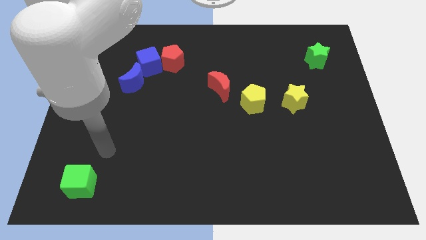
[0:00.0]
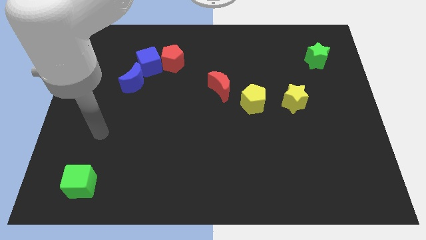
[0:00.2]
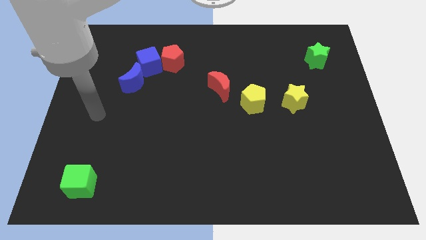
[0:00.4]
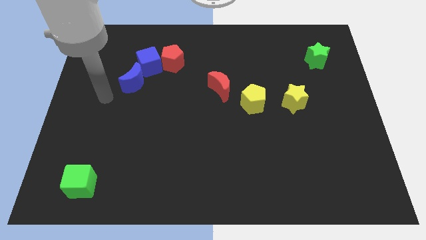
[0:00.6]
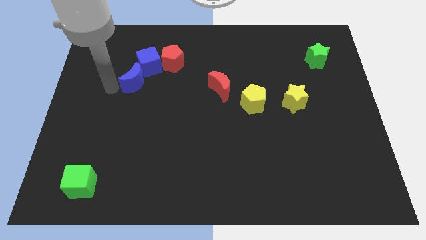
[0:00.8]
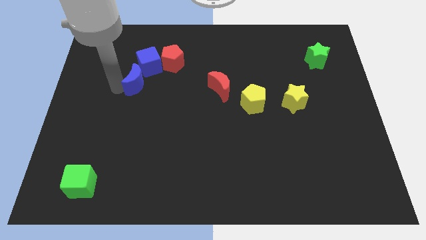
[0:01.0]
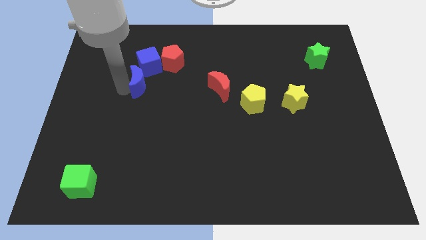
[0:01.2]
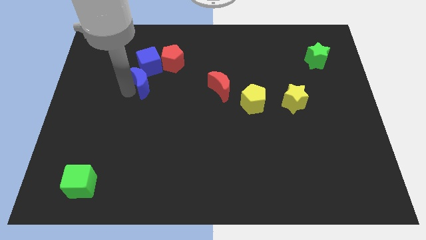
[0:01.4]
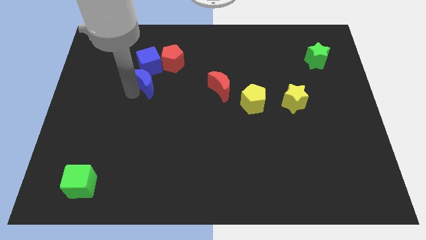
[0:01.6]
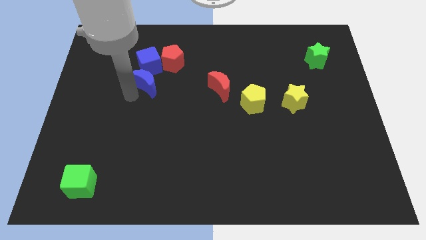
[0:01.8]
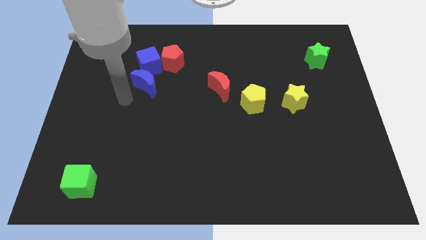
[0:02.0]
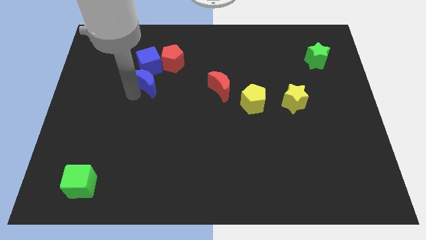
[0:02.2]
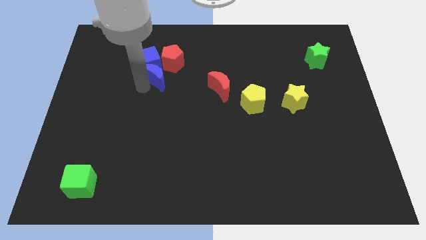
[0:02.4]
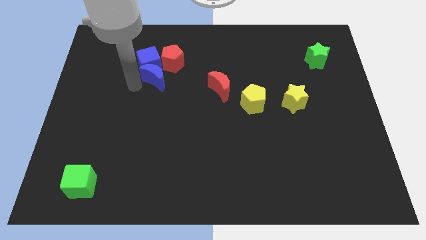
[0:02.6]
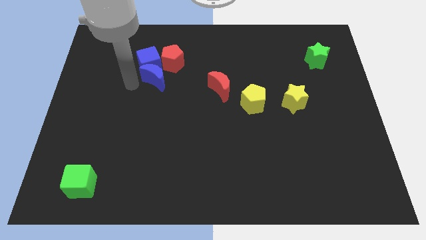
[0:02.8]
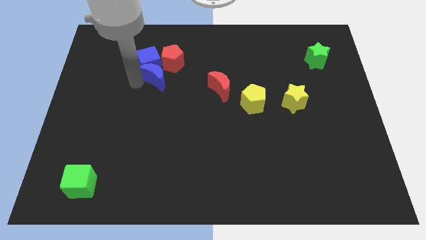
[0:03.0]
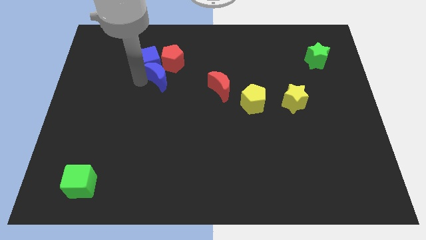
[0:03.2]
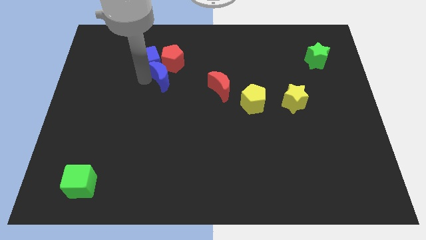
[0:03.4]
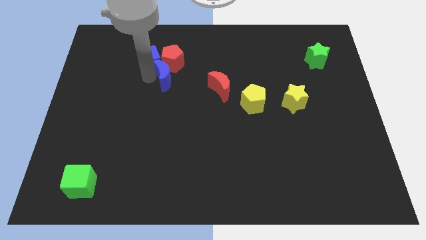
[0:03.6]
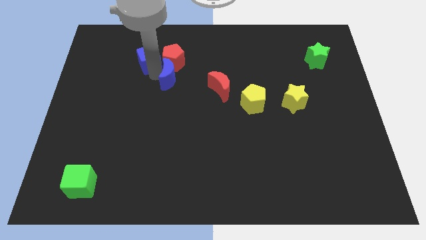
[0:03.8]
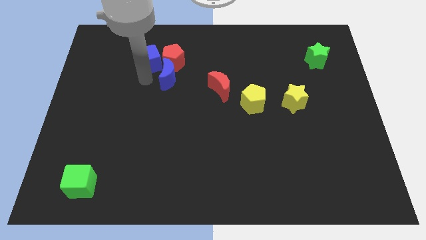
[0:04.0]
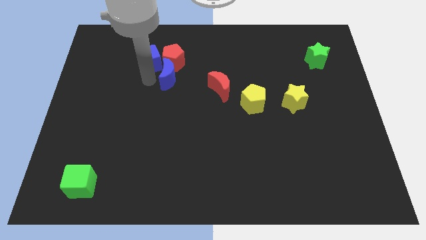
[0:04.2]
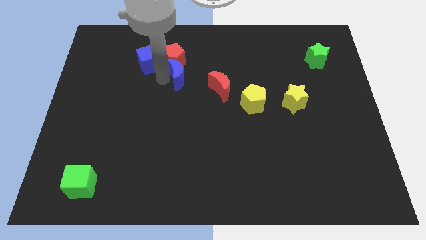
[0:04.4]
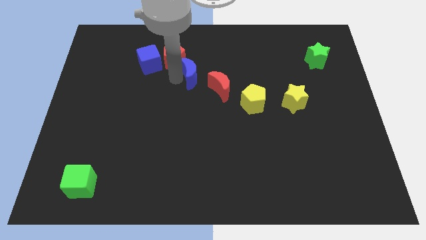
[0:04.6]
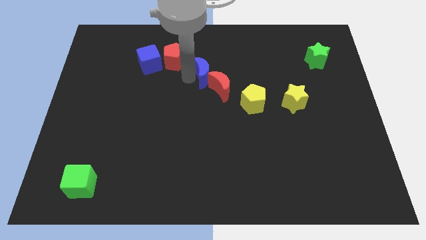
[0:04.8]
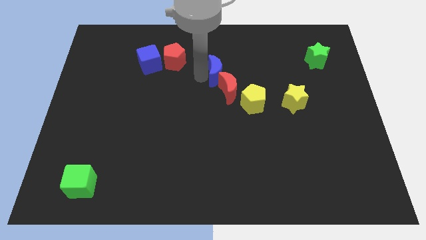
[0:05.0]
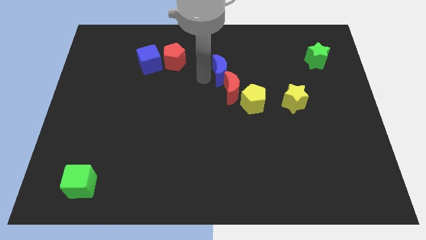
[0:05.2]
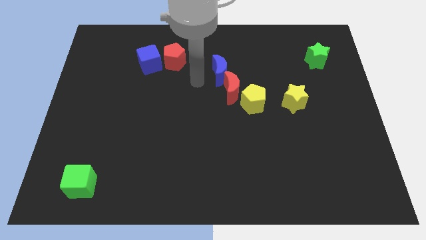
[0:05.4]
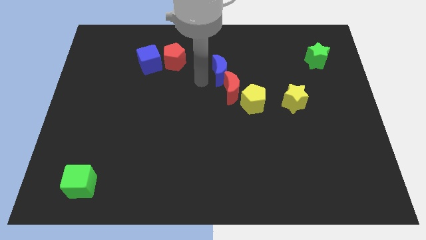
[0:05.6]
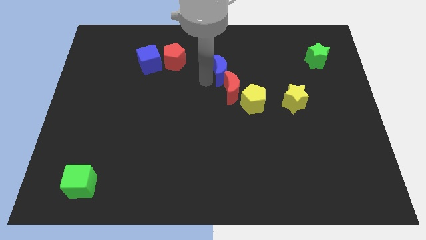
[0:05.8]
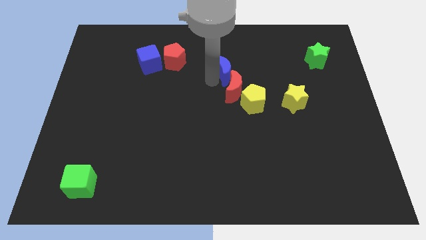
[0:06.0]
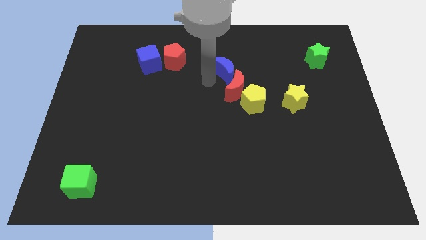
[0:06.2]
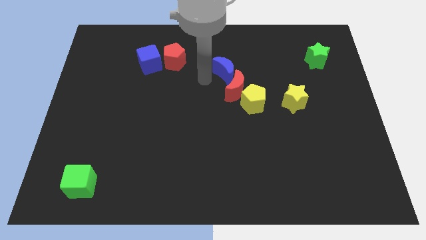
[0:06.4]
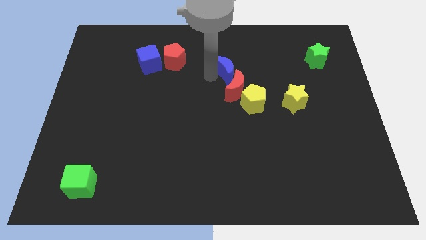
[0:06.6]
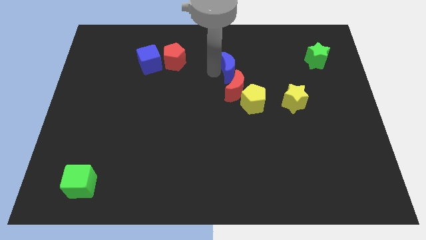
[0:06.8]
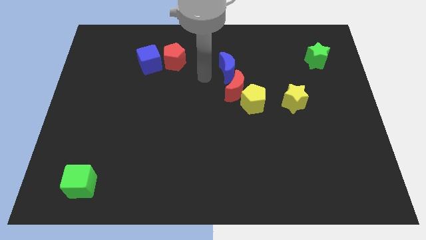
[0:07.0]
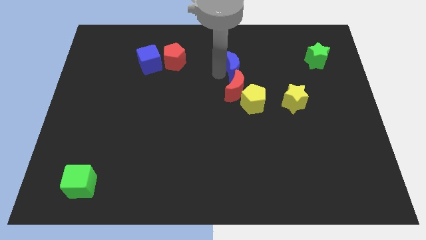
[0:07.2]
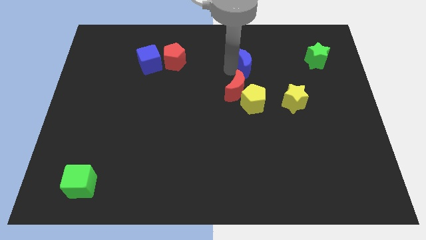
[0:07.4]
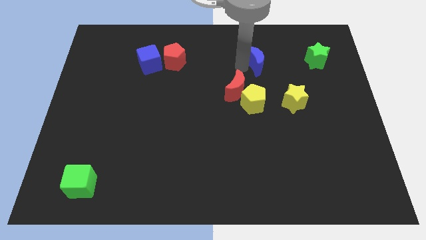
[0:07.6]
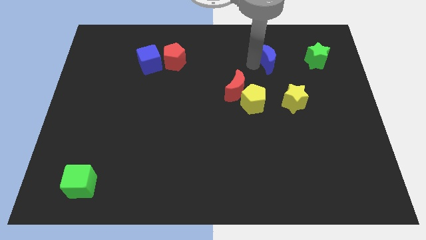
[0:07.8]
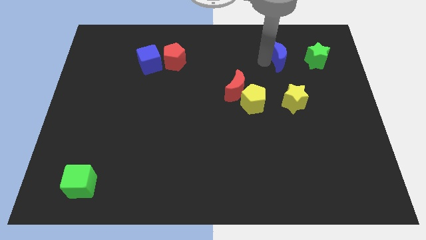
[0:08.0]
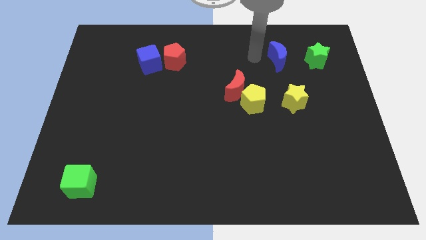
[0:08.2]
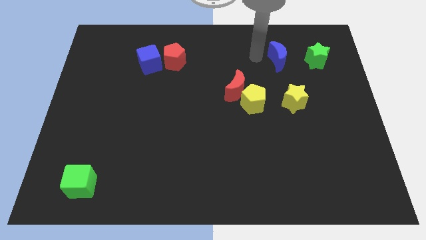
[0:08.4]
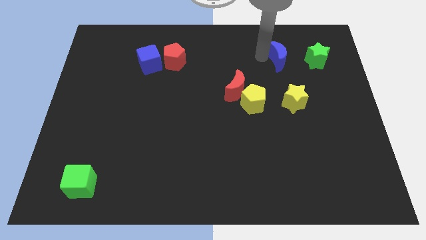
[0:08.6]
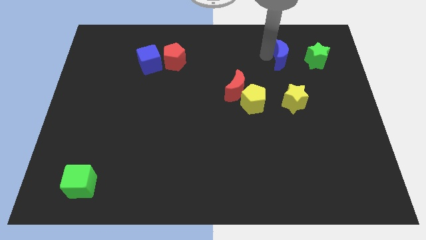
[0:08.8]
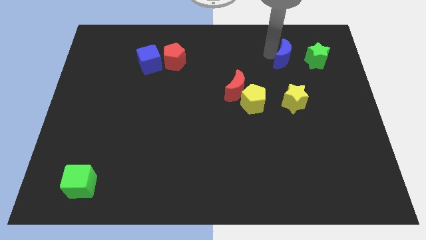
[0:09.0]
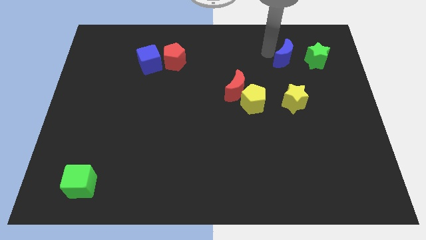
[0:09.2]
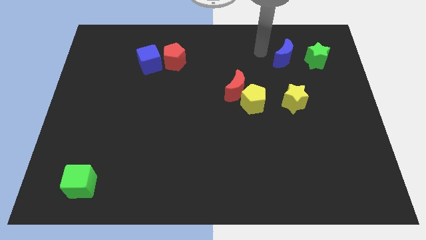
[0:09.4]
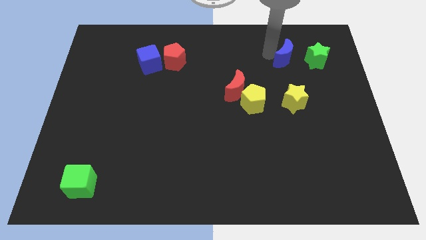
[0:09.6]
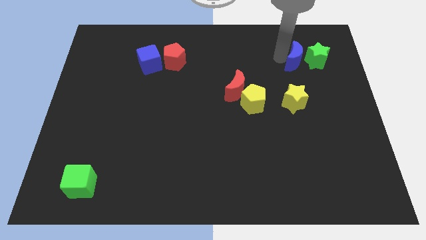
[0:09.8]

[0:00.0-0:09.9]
put the blue moon towards the green star

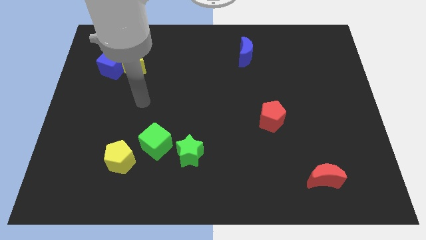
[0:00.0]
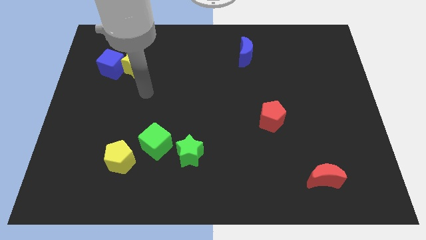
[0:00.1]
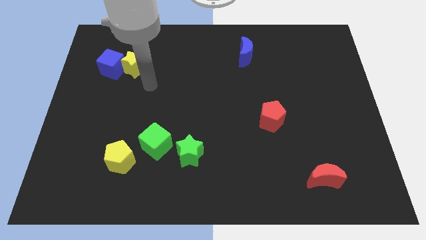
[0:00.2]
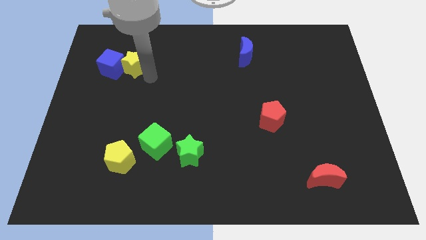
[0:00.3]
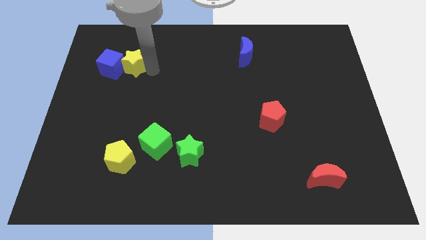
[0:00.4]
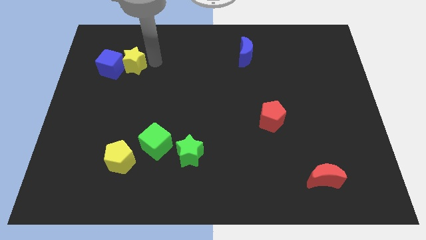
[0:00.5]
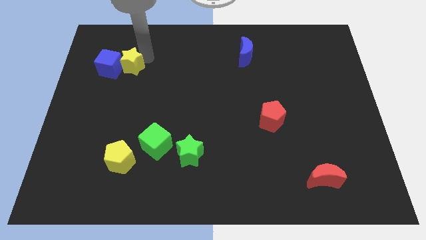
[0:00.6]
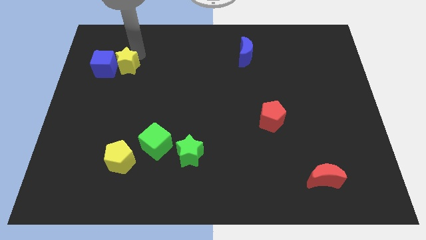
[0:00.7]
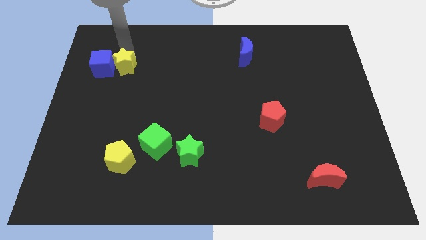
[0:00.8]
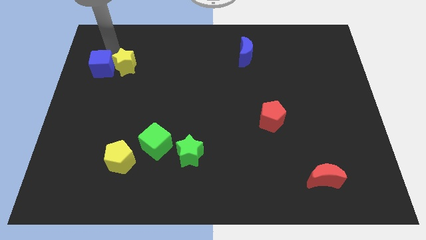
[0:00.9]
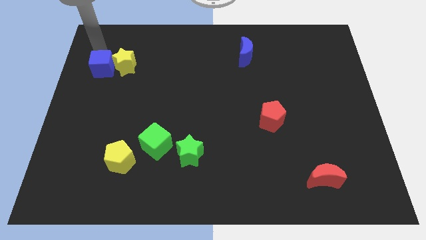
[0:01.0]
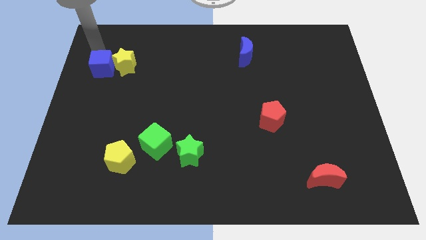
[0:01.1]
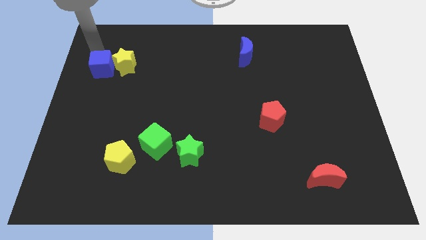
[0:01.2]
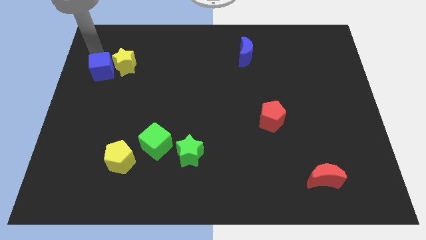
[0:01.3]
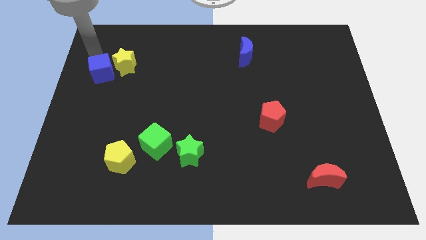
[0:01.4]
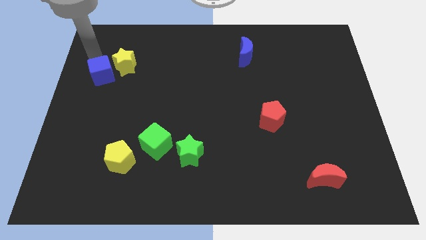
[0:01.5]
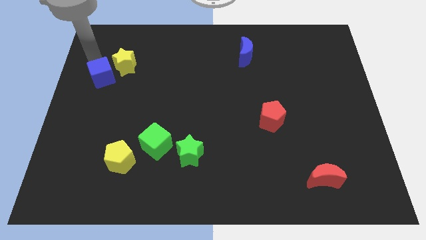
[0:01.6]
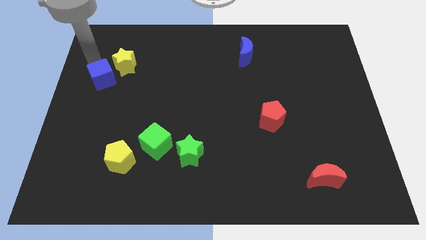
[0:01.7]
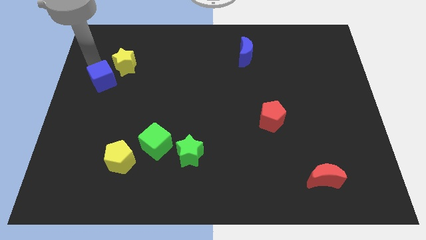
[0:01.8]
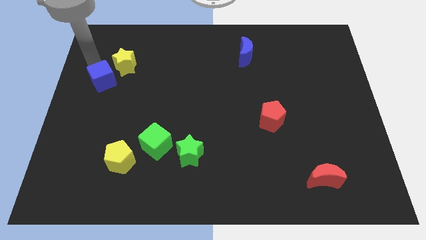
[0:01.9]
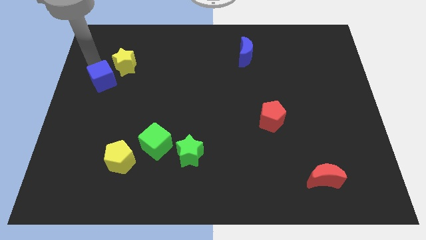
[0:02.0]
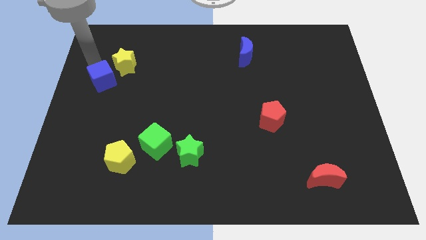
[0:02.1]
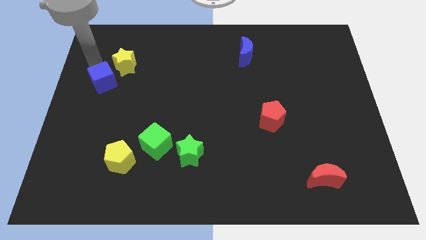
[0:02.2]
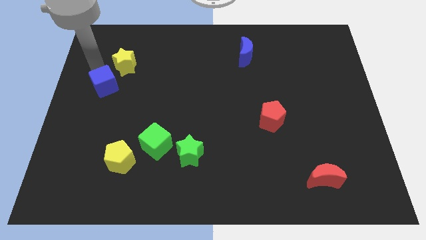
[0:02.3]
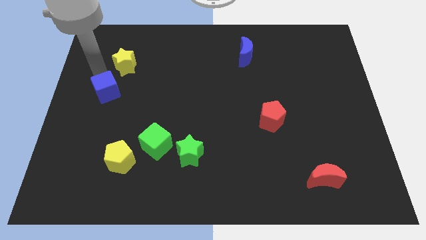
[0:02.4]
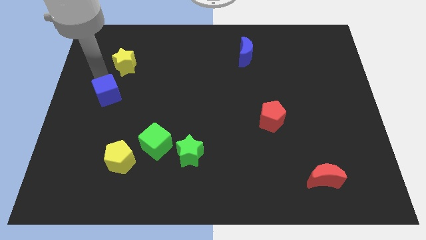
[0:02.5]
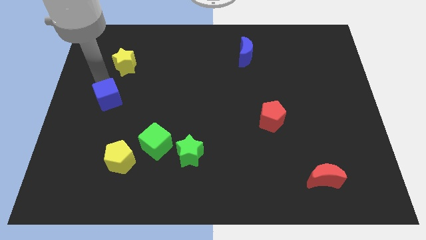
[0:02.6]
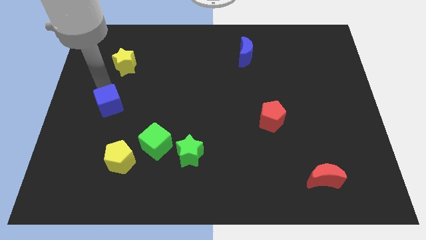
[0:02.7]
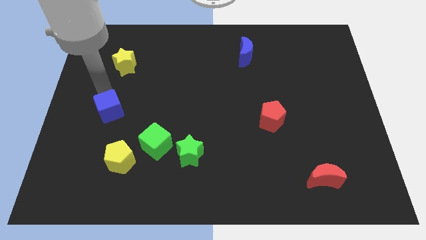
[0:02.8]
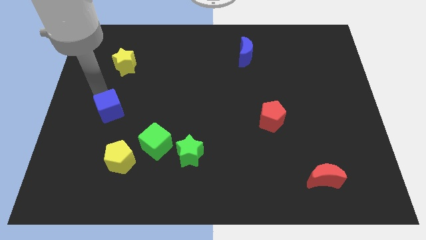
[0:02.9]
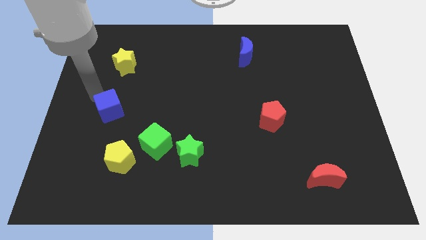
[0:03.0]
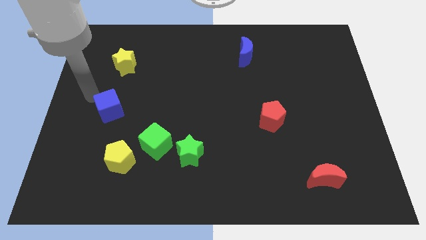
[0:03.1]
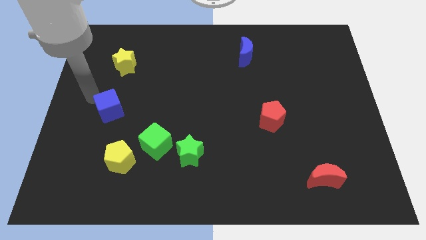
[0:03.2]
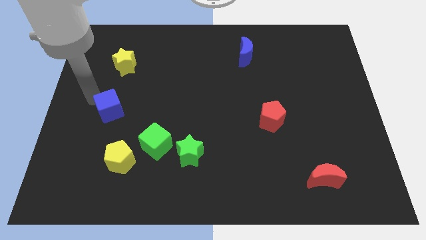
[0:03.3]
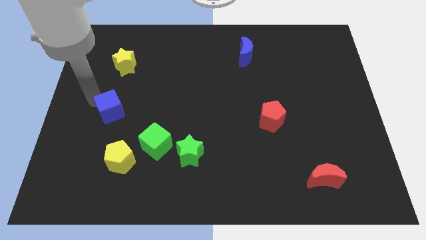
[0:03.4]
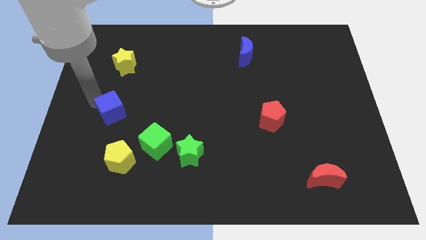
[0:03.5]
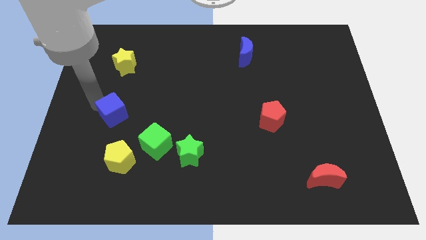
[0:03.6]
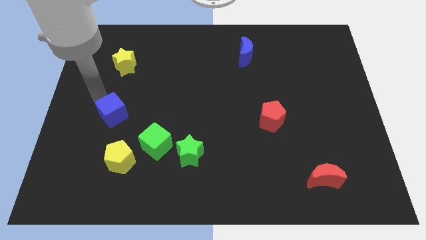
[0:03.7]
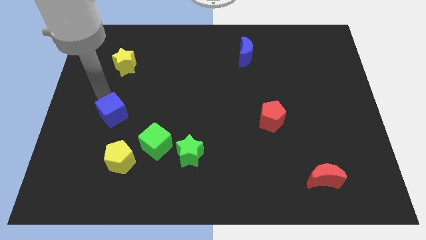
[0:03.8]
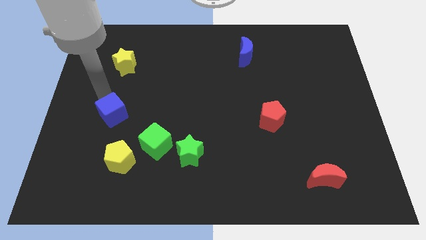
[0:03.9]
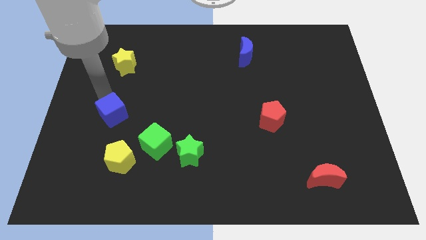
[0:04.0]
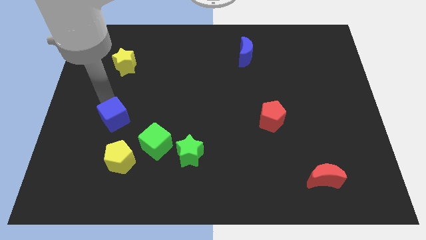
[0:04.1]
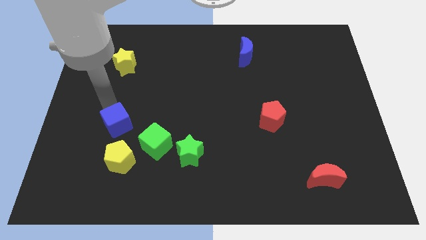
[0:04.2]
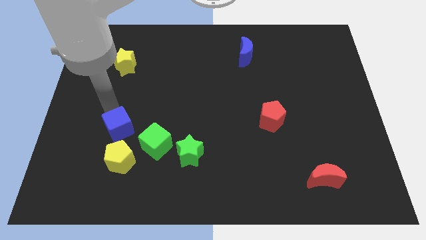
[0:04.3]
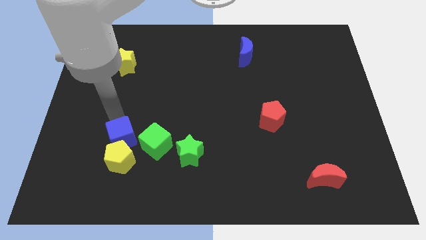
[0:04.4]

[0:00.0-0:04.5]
put the blue cube close to the yellow pentagon
